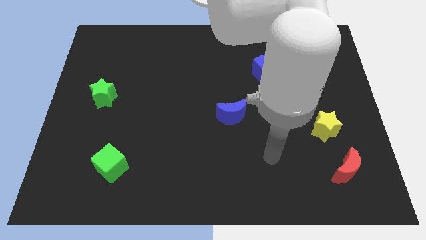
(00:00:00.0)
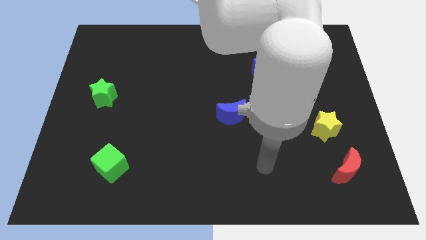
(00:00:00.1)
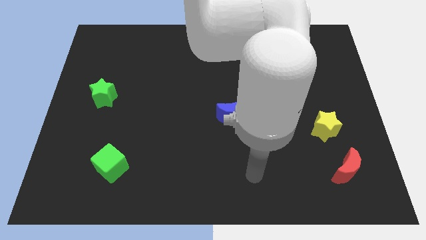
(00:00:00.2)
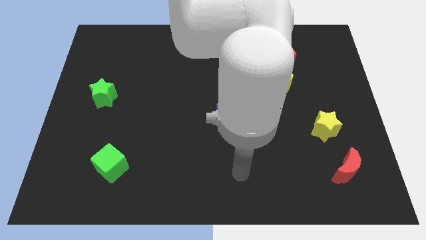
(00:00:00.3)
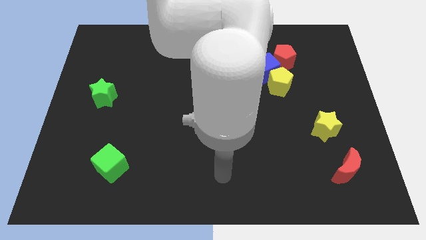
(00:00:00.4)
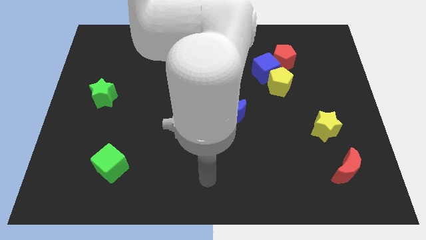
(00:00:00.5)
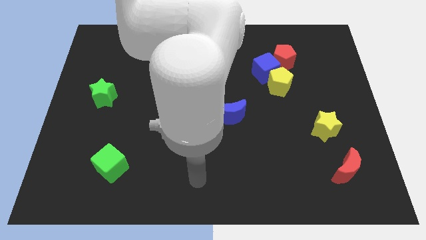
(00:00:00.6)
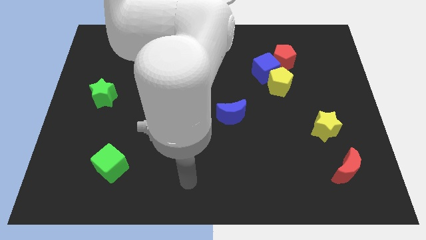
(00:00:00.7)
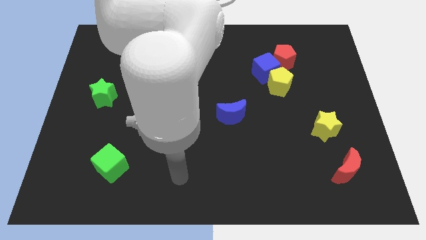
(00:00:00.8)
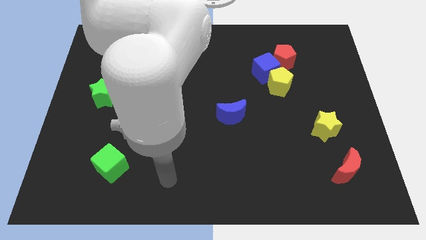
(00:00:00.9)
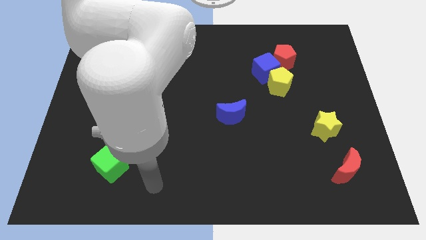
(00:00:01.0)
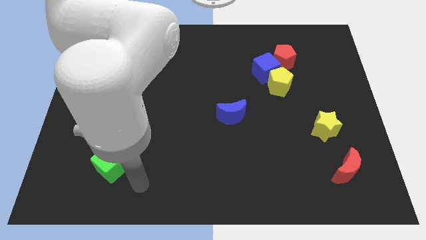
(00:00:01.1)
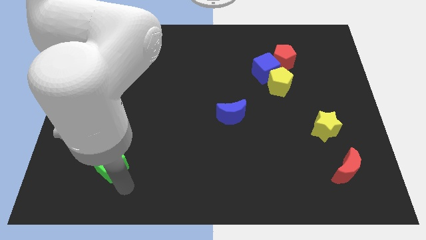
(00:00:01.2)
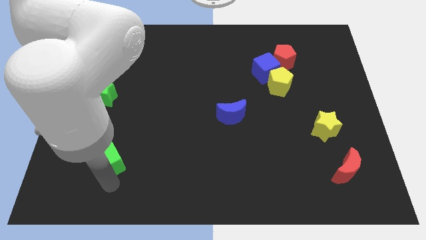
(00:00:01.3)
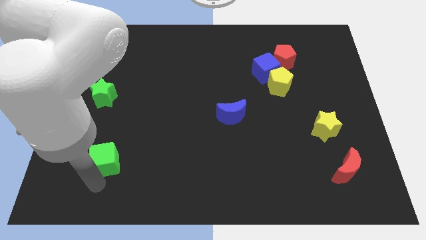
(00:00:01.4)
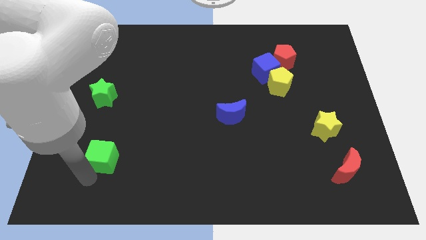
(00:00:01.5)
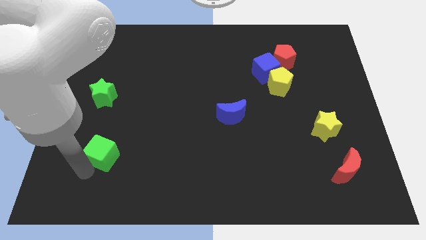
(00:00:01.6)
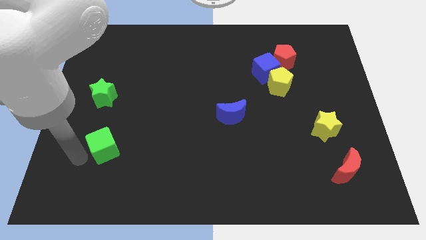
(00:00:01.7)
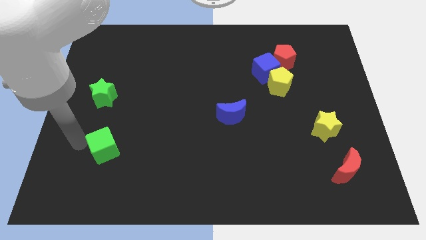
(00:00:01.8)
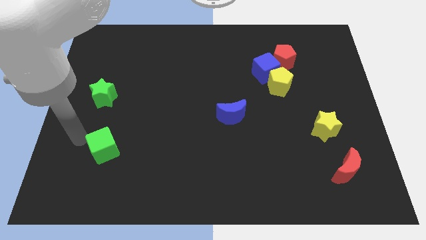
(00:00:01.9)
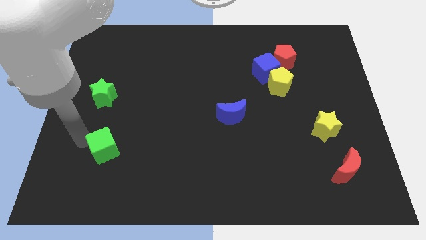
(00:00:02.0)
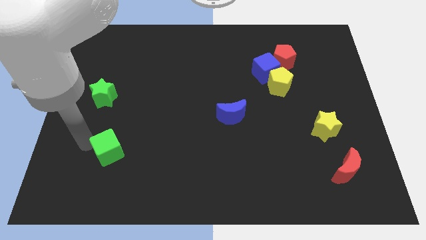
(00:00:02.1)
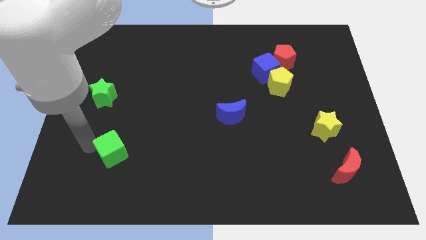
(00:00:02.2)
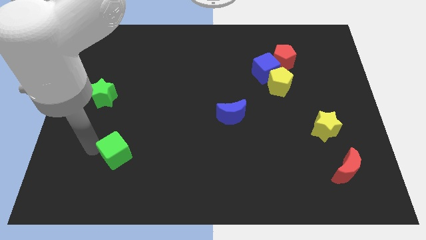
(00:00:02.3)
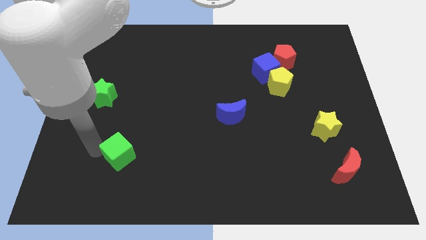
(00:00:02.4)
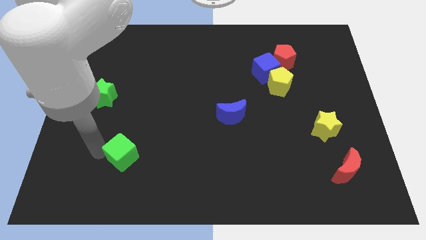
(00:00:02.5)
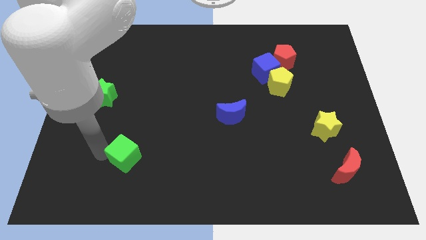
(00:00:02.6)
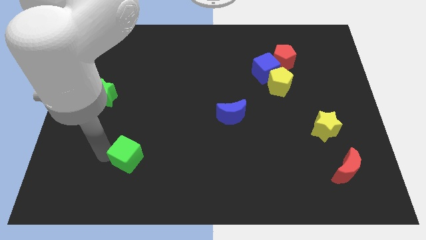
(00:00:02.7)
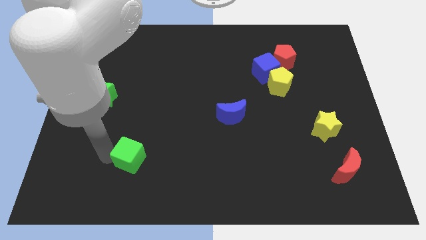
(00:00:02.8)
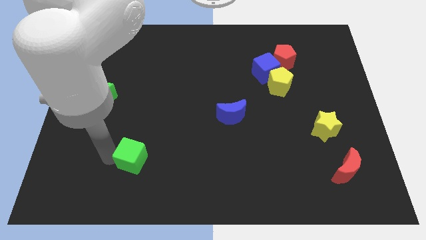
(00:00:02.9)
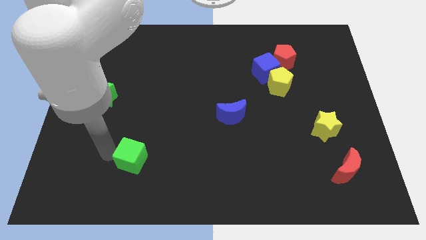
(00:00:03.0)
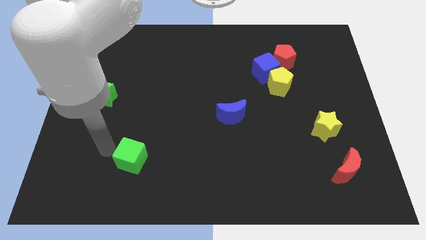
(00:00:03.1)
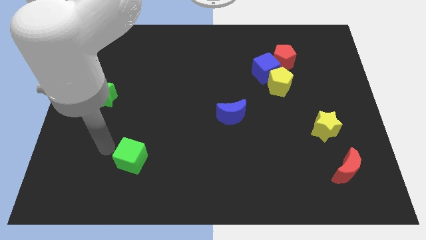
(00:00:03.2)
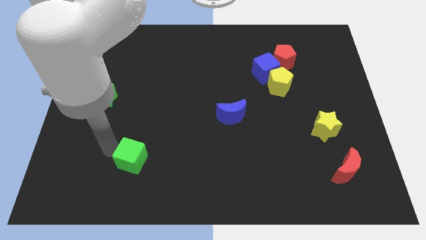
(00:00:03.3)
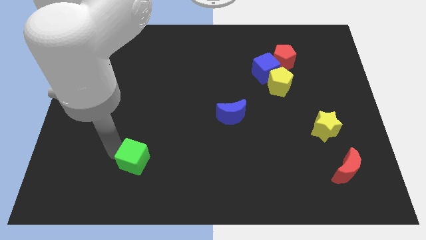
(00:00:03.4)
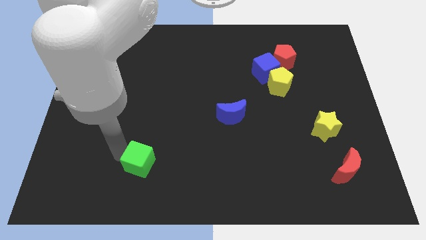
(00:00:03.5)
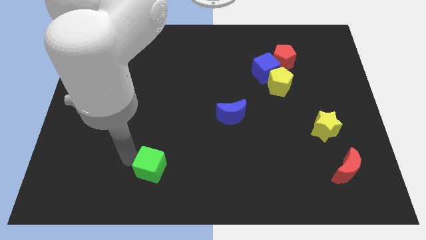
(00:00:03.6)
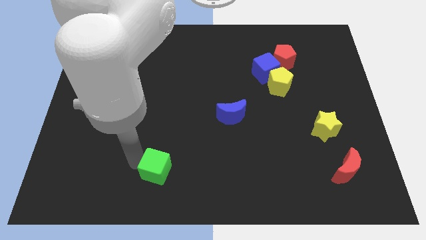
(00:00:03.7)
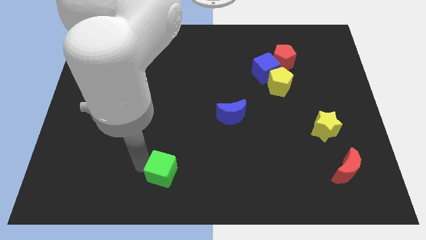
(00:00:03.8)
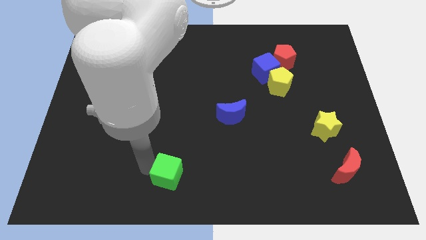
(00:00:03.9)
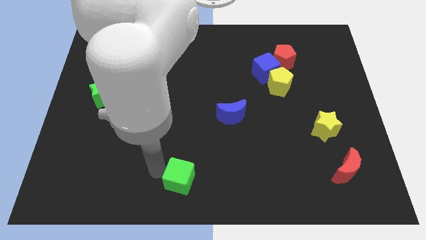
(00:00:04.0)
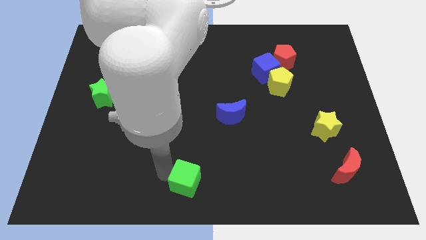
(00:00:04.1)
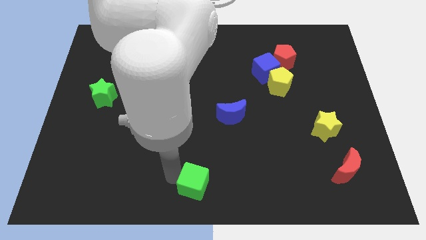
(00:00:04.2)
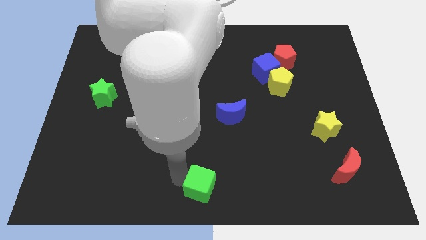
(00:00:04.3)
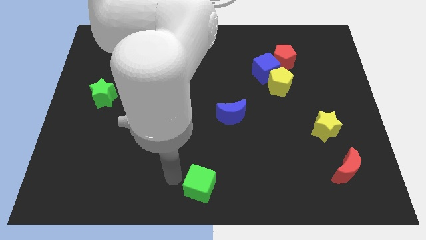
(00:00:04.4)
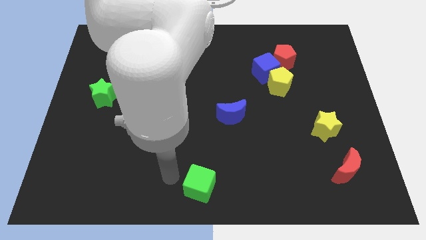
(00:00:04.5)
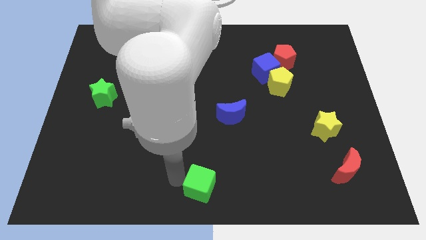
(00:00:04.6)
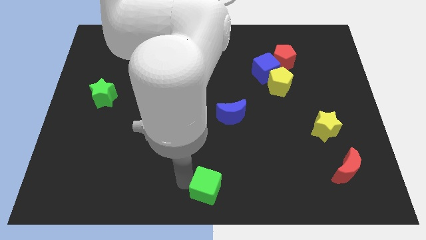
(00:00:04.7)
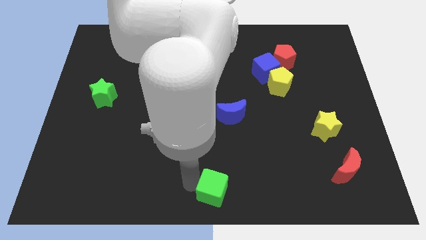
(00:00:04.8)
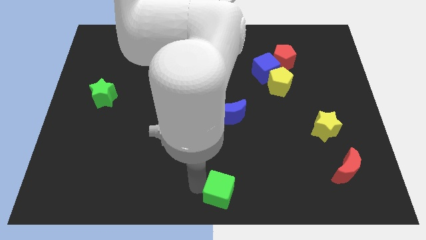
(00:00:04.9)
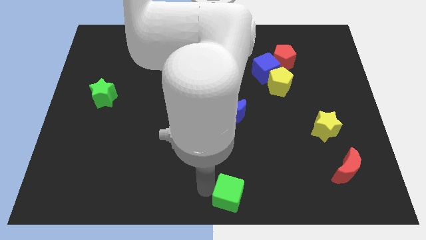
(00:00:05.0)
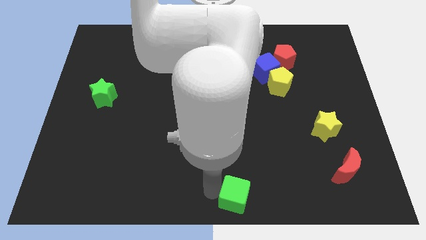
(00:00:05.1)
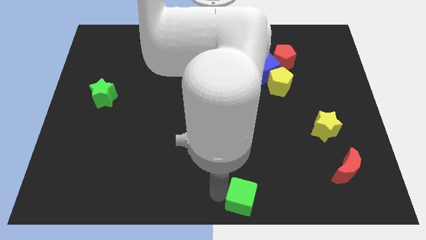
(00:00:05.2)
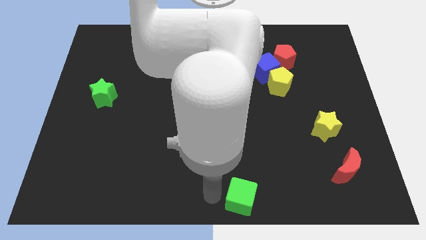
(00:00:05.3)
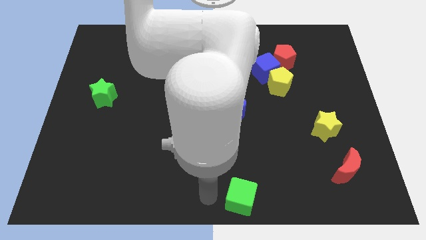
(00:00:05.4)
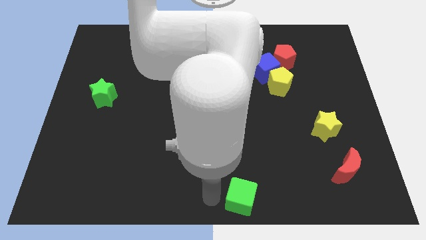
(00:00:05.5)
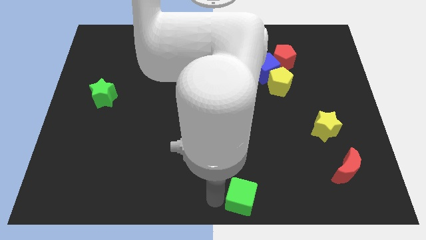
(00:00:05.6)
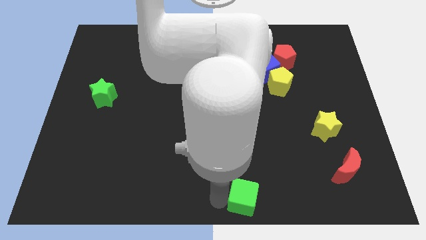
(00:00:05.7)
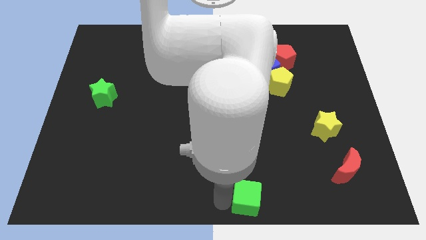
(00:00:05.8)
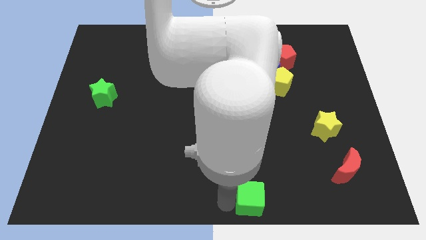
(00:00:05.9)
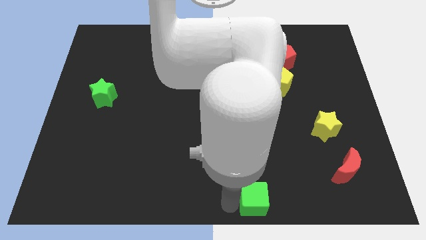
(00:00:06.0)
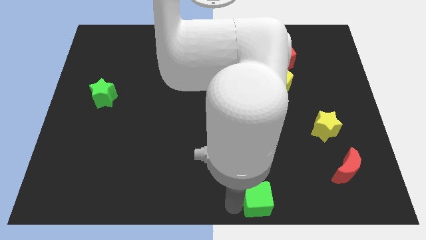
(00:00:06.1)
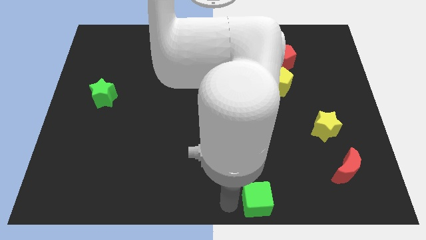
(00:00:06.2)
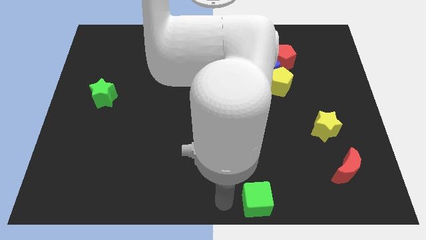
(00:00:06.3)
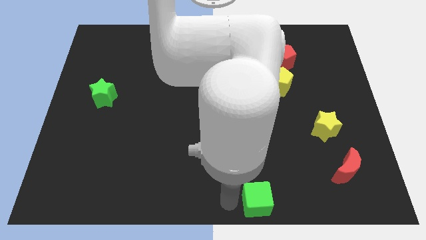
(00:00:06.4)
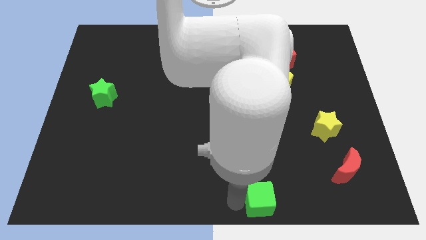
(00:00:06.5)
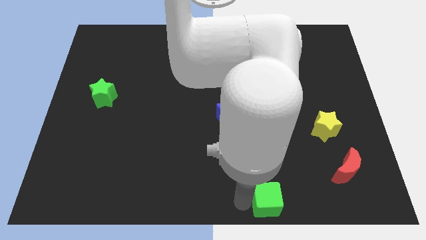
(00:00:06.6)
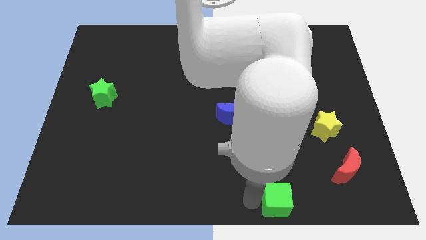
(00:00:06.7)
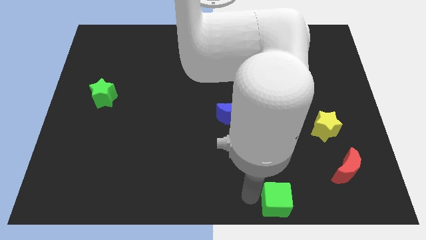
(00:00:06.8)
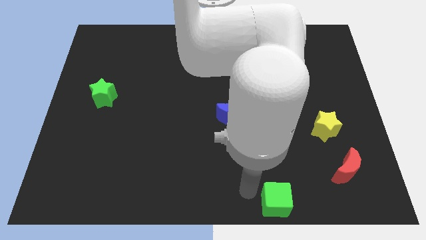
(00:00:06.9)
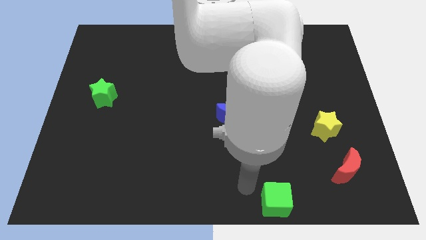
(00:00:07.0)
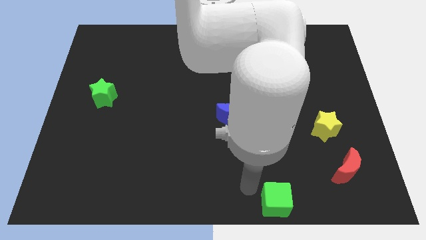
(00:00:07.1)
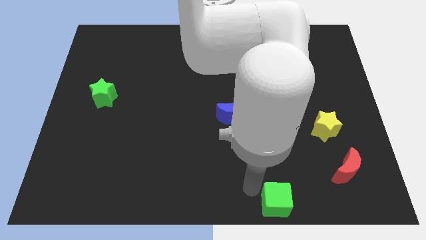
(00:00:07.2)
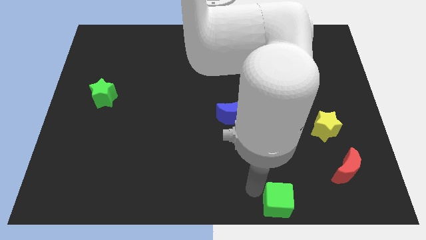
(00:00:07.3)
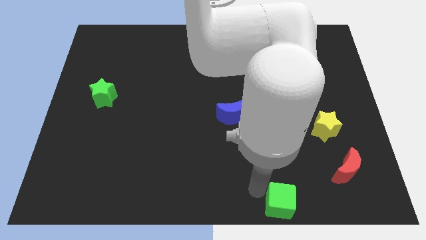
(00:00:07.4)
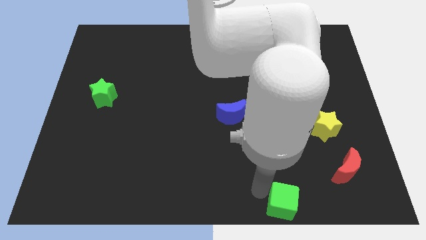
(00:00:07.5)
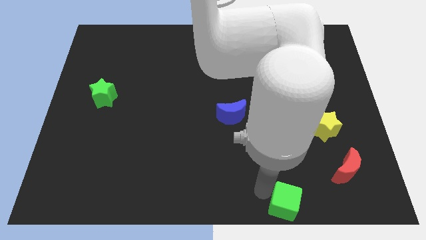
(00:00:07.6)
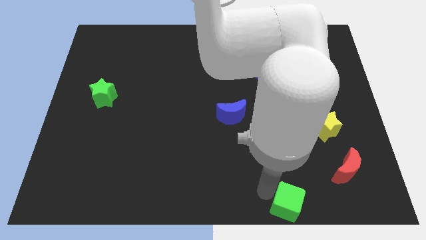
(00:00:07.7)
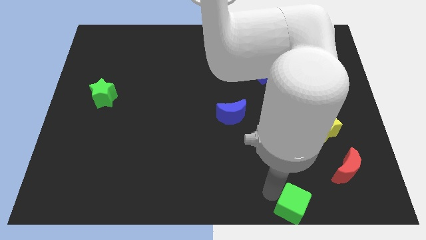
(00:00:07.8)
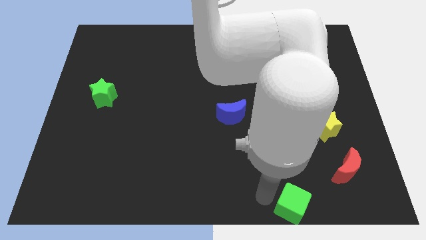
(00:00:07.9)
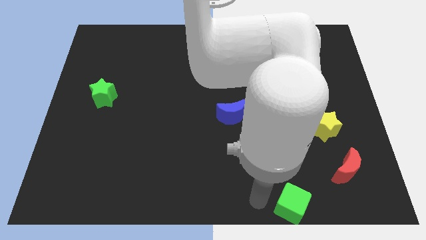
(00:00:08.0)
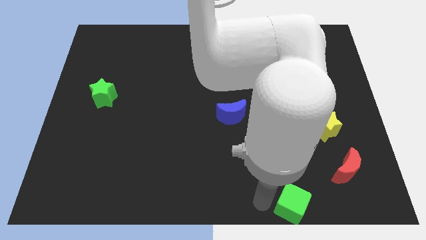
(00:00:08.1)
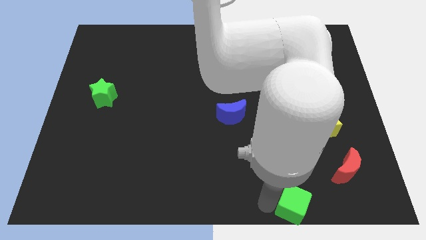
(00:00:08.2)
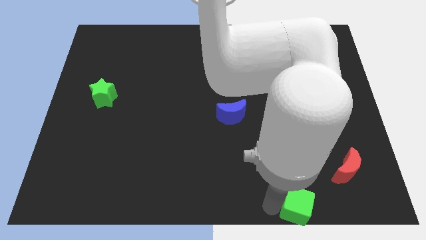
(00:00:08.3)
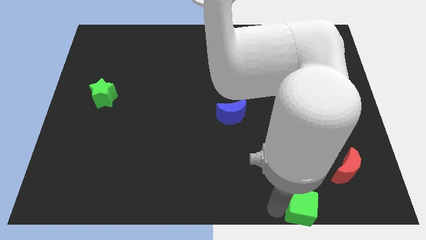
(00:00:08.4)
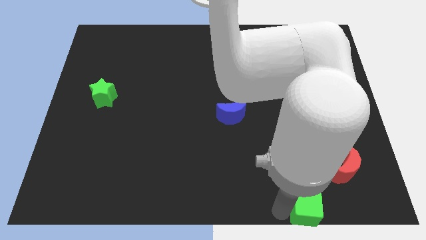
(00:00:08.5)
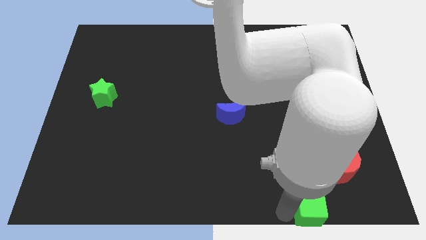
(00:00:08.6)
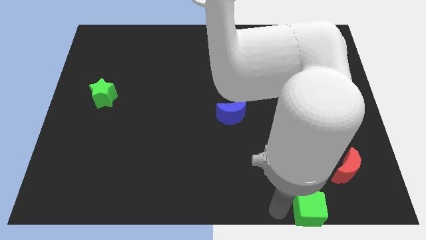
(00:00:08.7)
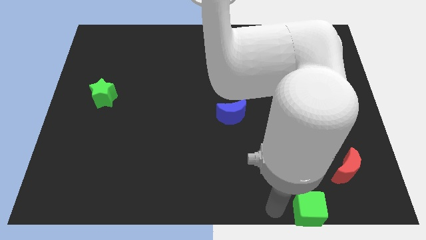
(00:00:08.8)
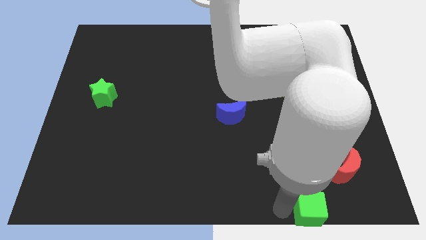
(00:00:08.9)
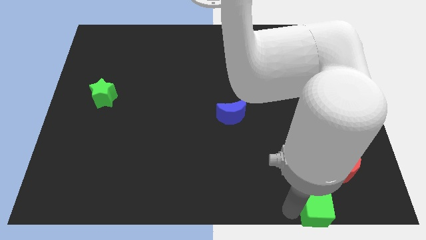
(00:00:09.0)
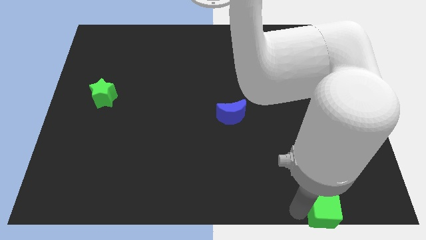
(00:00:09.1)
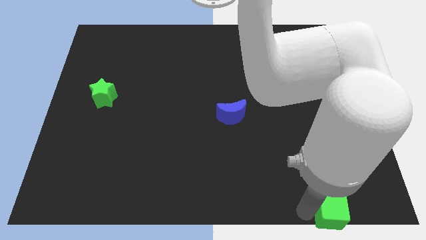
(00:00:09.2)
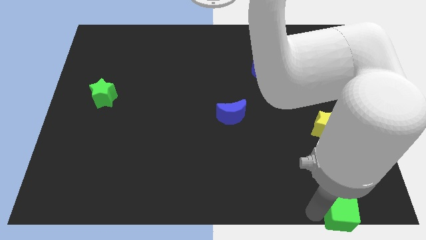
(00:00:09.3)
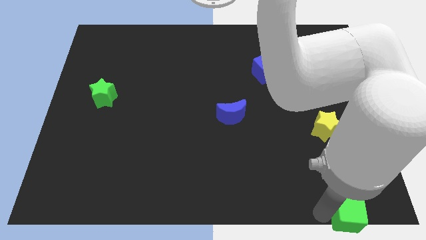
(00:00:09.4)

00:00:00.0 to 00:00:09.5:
put the green cube to the bottom right corner
